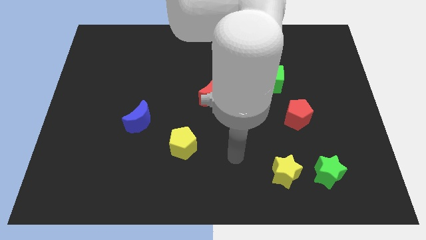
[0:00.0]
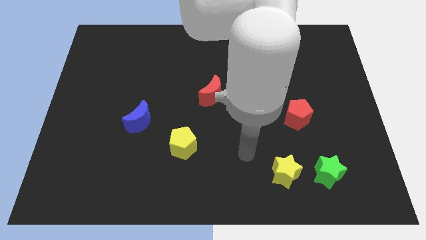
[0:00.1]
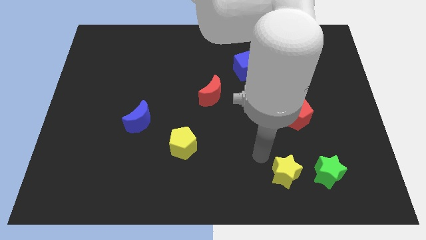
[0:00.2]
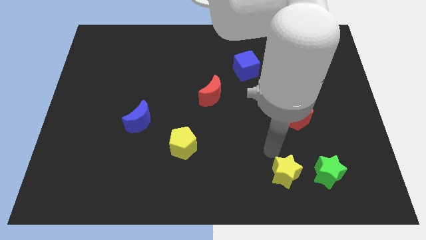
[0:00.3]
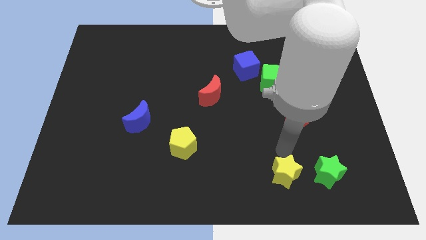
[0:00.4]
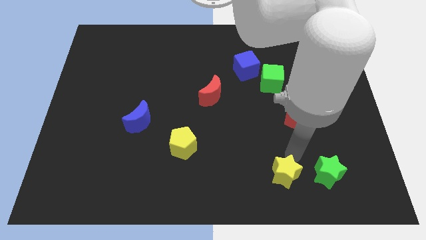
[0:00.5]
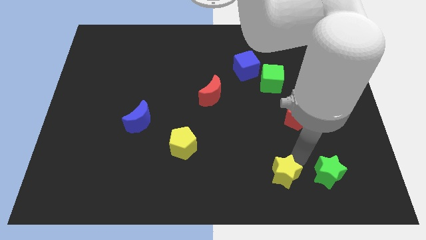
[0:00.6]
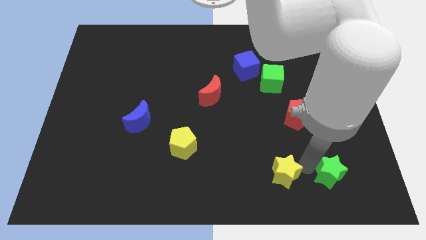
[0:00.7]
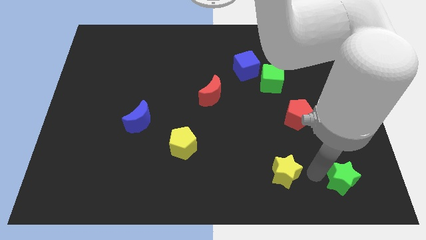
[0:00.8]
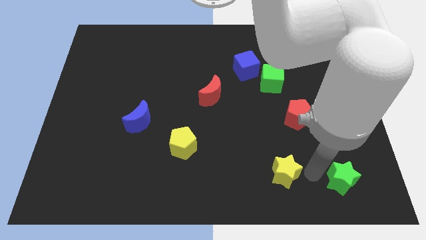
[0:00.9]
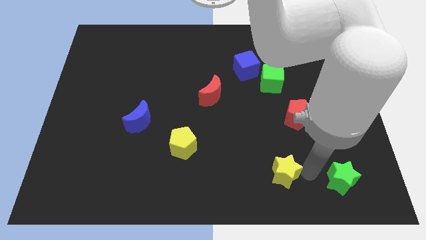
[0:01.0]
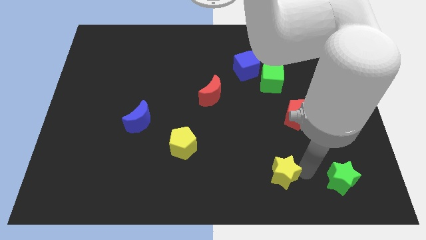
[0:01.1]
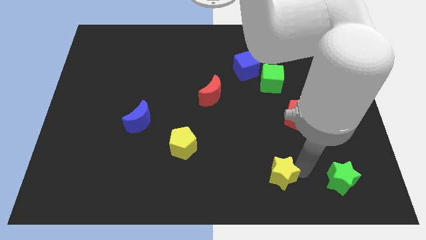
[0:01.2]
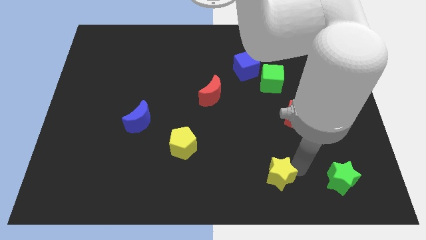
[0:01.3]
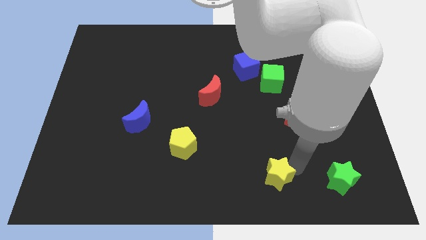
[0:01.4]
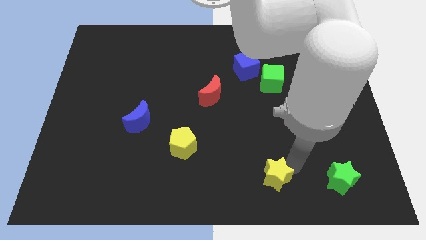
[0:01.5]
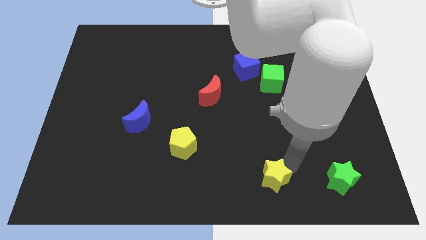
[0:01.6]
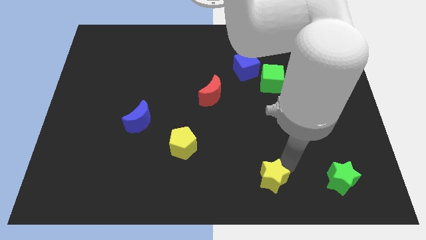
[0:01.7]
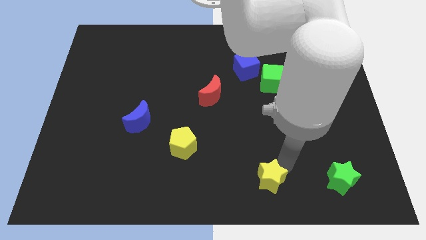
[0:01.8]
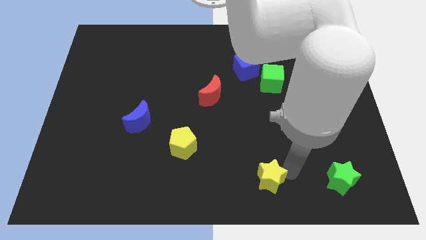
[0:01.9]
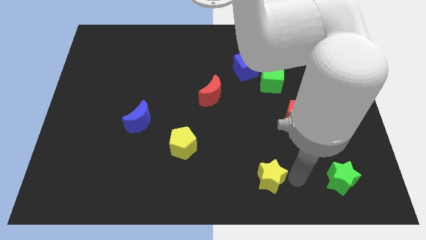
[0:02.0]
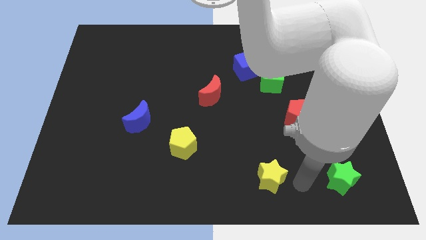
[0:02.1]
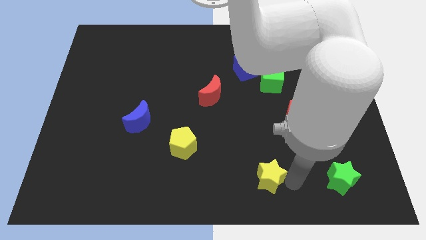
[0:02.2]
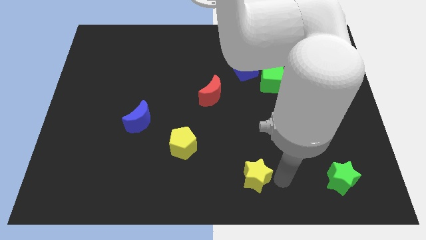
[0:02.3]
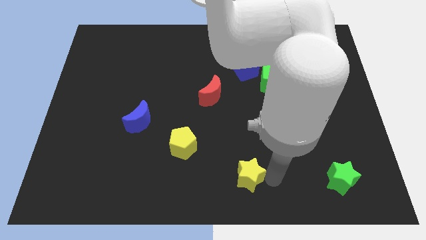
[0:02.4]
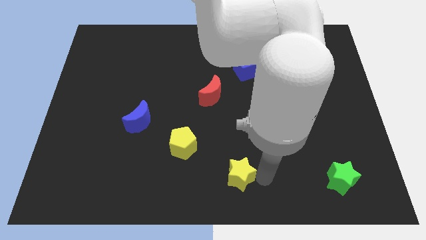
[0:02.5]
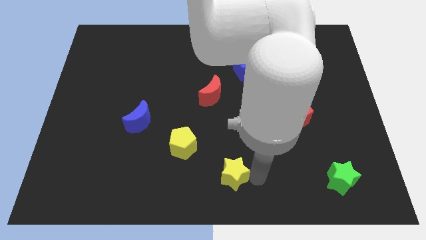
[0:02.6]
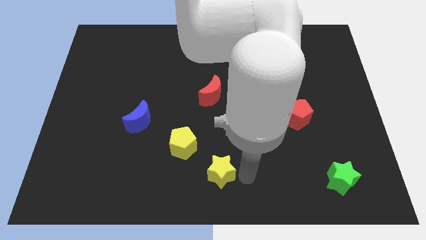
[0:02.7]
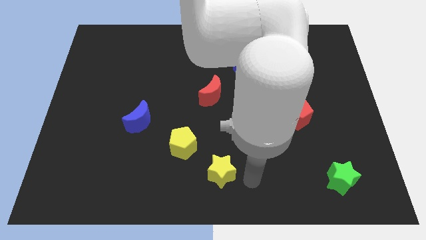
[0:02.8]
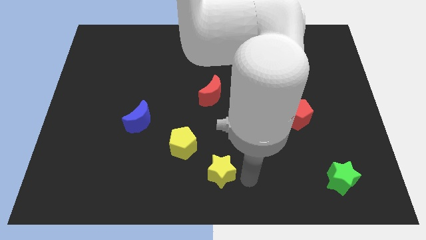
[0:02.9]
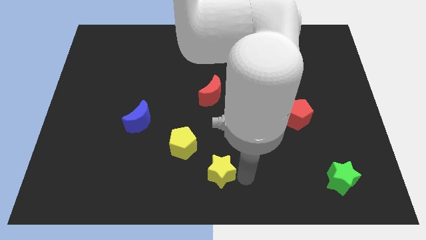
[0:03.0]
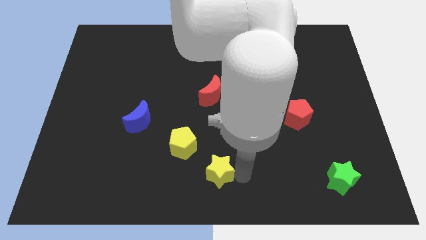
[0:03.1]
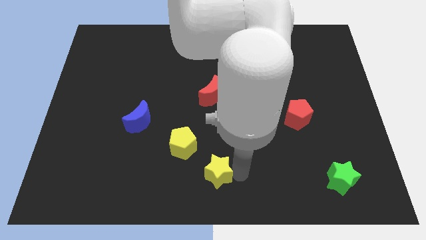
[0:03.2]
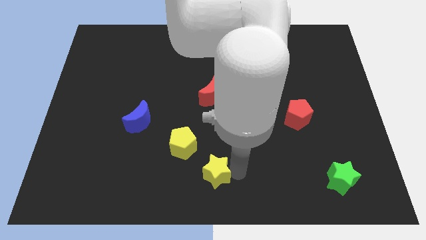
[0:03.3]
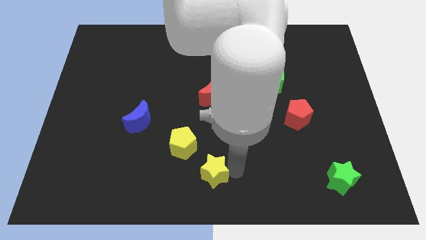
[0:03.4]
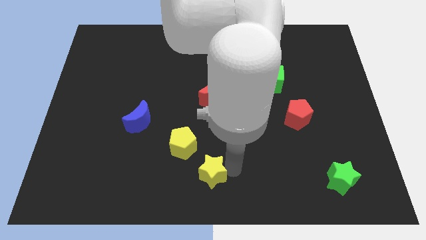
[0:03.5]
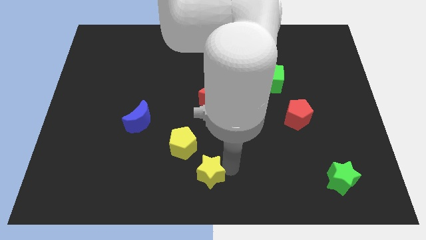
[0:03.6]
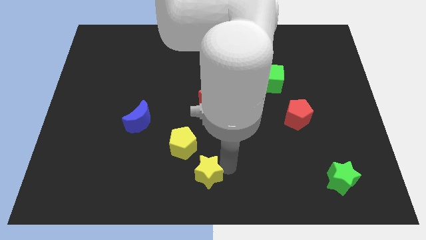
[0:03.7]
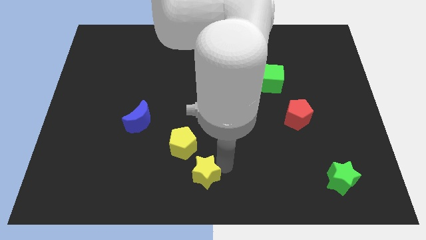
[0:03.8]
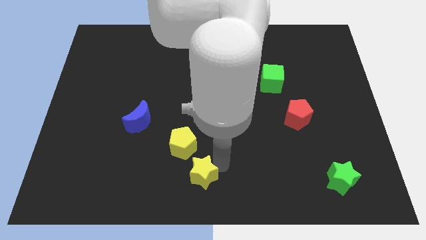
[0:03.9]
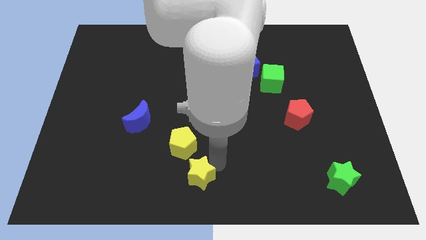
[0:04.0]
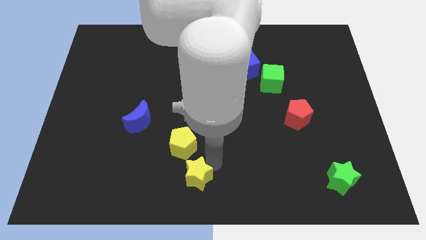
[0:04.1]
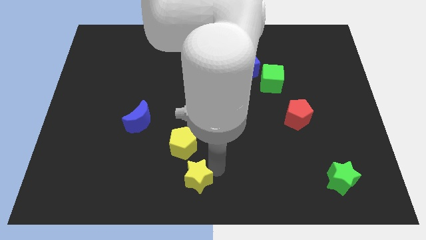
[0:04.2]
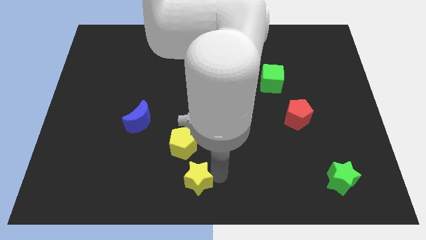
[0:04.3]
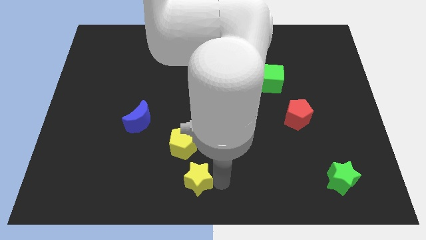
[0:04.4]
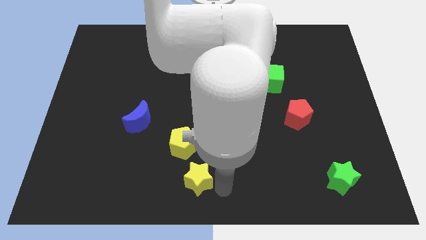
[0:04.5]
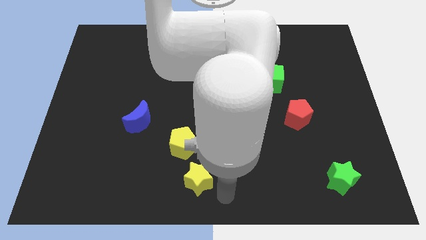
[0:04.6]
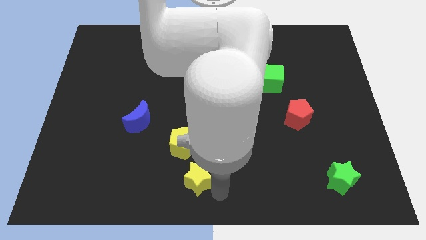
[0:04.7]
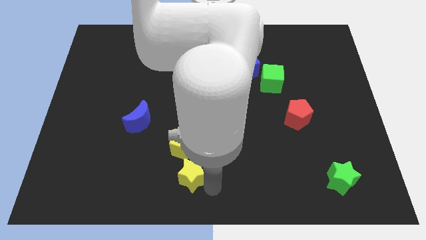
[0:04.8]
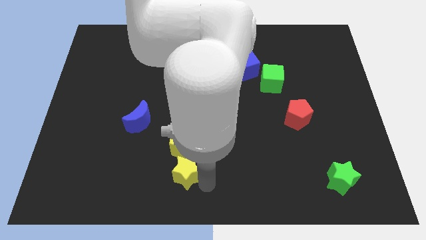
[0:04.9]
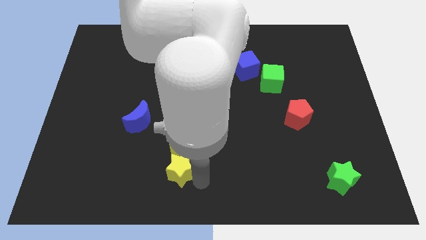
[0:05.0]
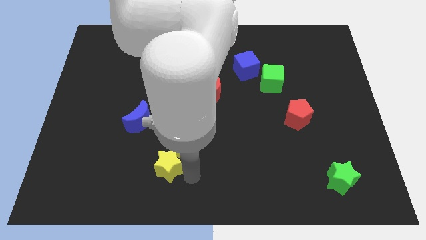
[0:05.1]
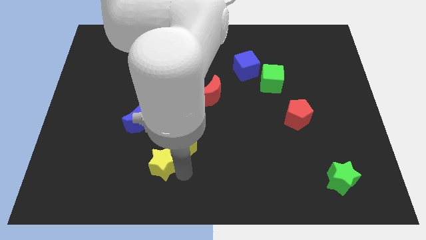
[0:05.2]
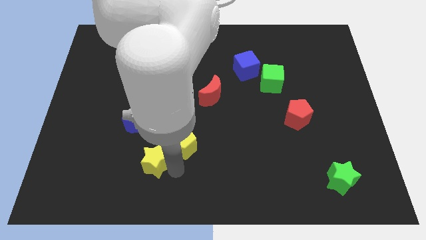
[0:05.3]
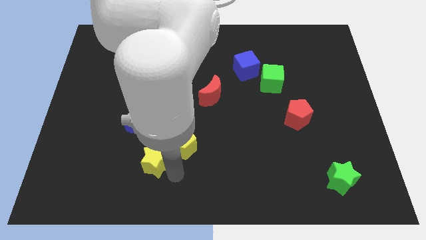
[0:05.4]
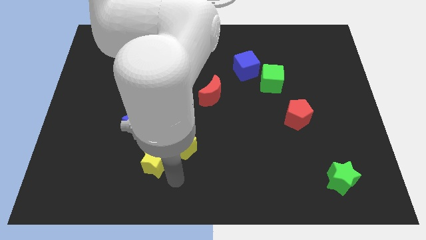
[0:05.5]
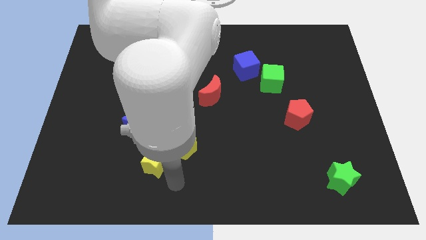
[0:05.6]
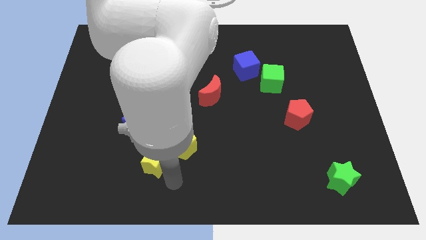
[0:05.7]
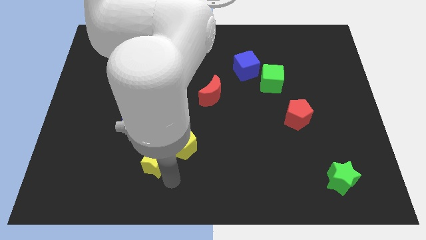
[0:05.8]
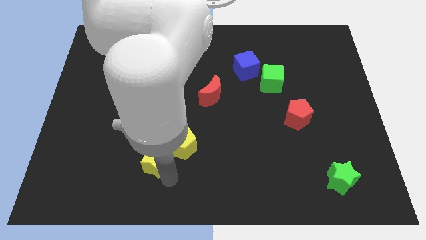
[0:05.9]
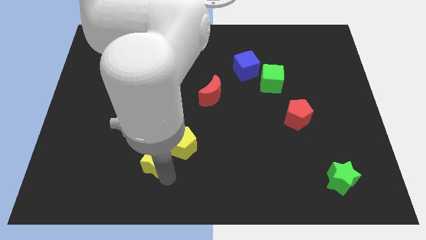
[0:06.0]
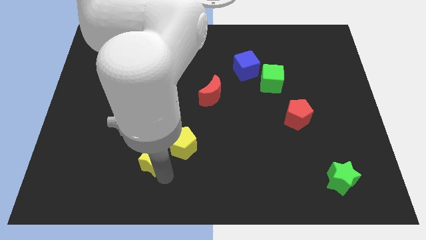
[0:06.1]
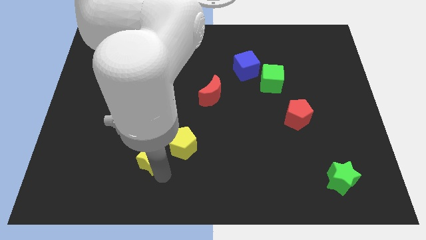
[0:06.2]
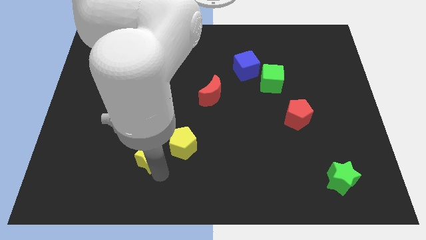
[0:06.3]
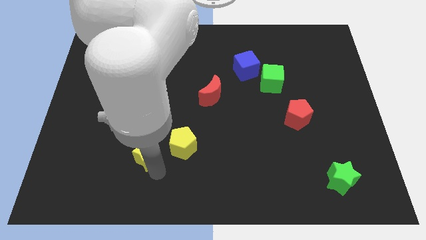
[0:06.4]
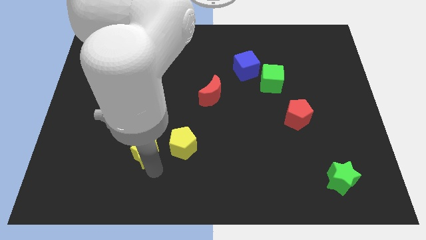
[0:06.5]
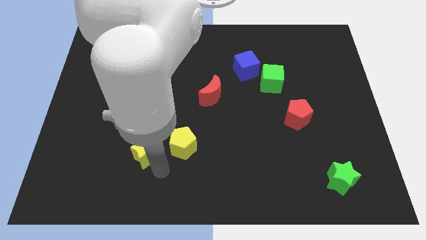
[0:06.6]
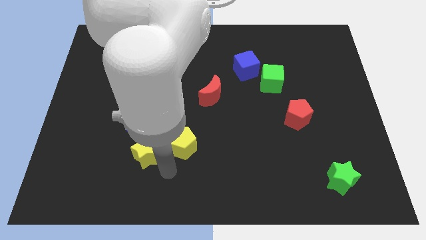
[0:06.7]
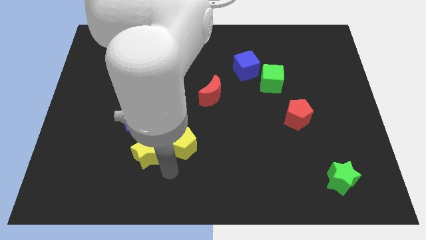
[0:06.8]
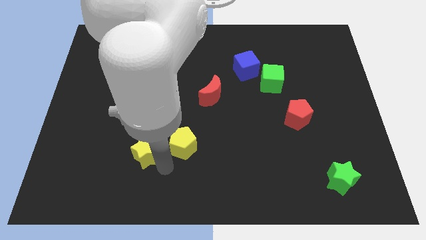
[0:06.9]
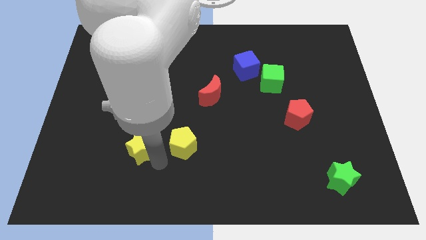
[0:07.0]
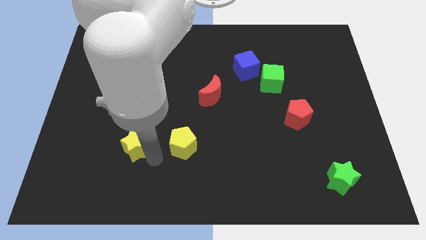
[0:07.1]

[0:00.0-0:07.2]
put the yellow star to the bottom left side of the blue moon
